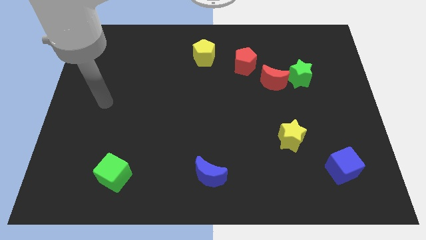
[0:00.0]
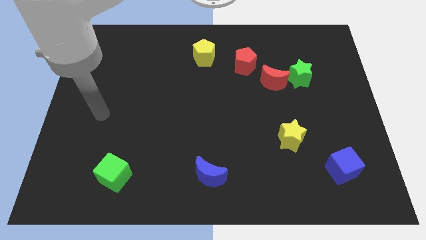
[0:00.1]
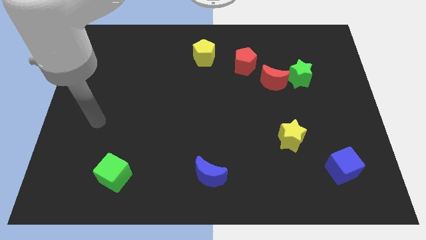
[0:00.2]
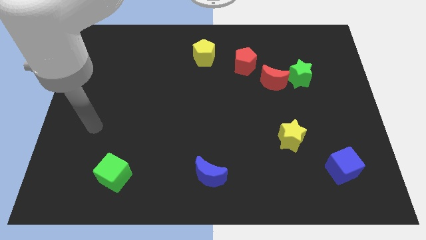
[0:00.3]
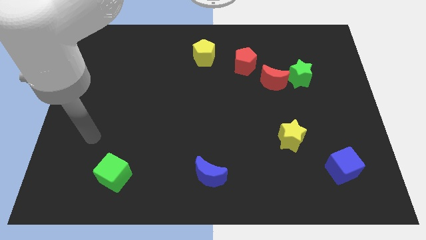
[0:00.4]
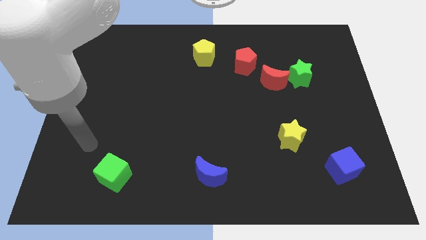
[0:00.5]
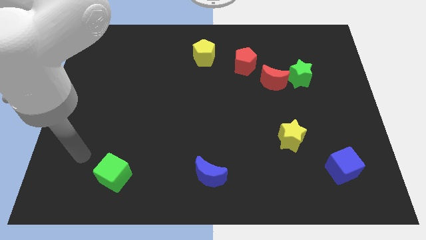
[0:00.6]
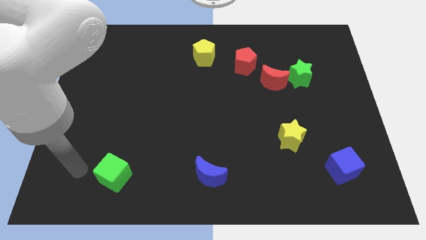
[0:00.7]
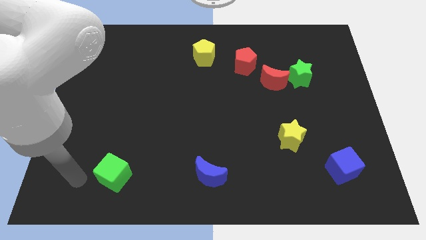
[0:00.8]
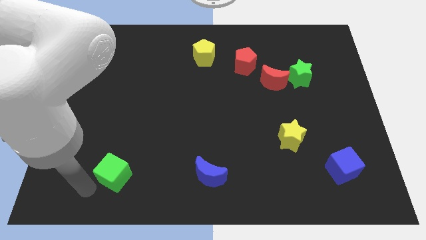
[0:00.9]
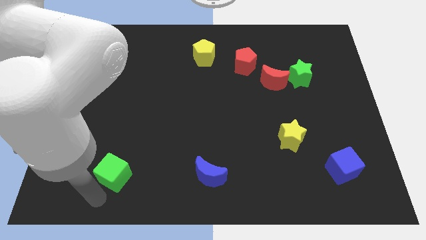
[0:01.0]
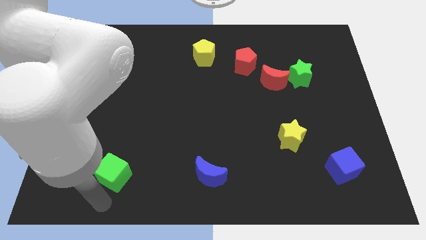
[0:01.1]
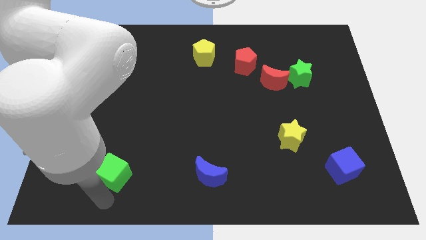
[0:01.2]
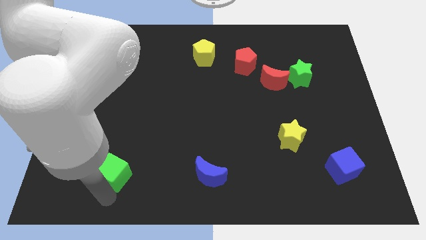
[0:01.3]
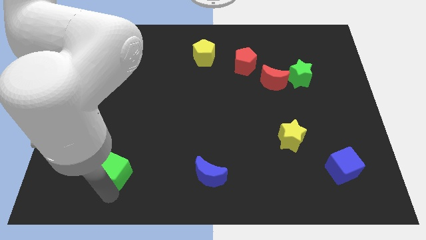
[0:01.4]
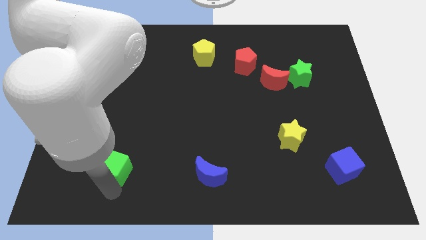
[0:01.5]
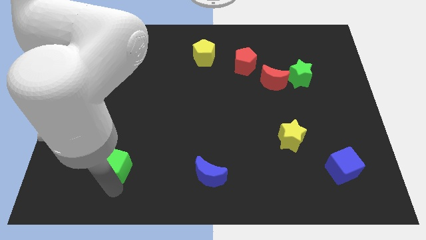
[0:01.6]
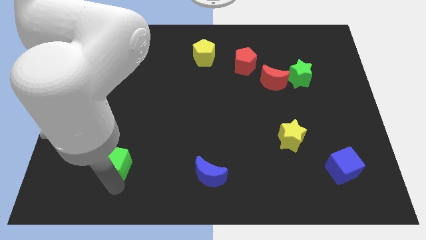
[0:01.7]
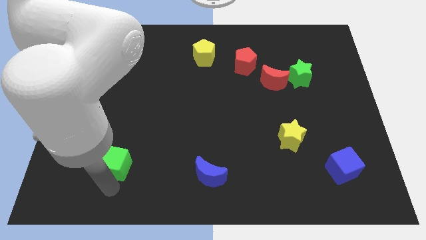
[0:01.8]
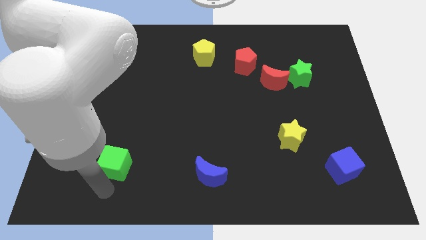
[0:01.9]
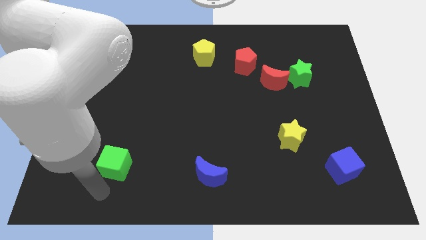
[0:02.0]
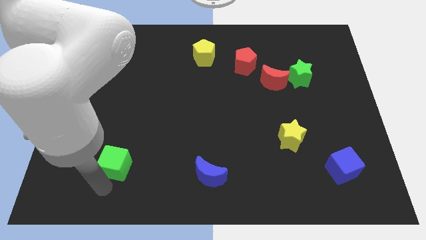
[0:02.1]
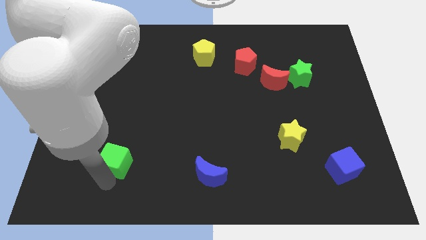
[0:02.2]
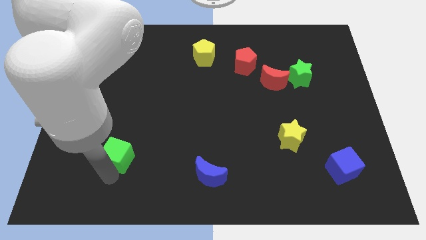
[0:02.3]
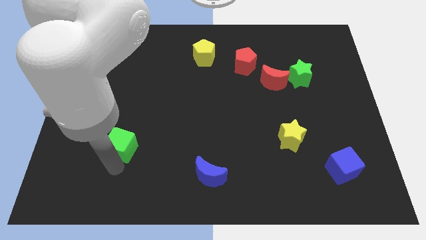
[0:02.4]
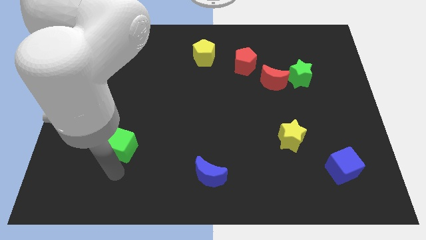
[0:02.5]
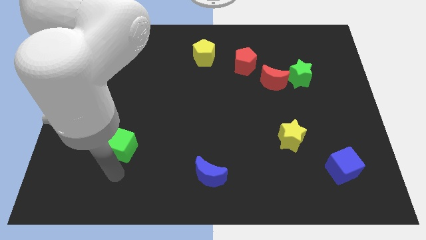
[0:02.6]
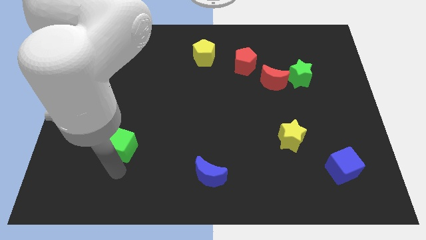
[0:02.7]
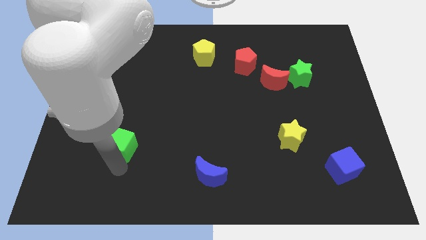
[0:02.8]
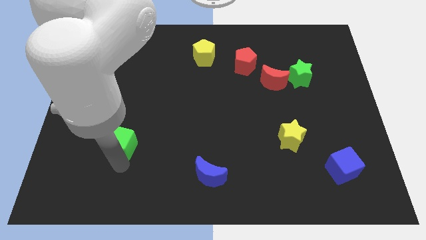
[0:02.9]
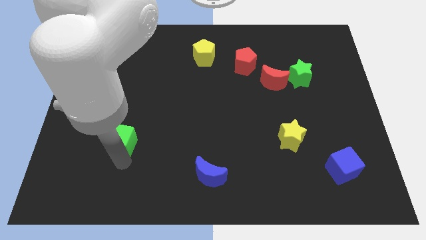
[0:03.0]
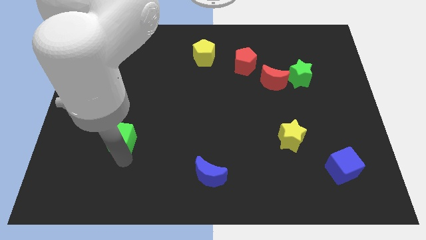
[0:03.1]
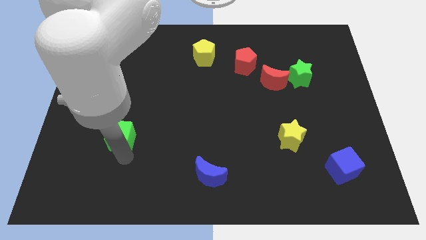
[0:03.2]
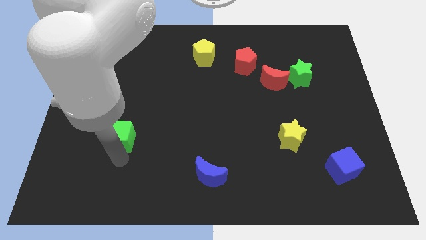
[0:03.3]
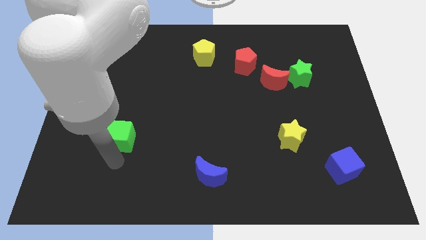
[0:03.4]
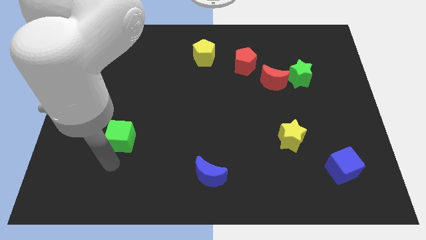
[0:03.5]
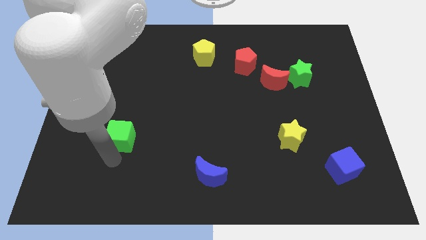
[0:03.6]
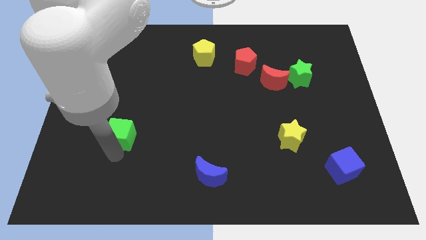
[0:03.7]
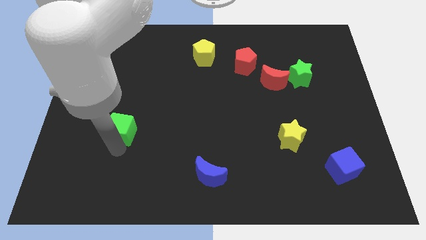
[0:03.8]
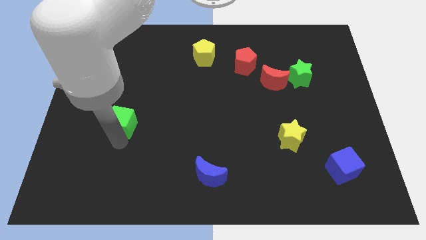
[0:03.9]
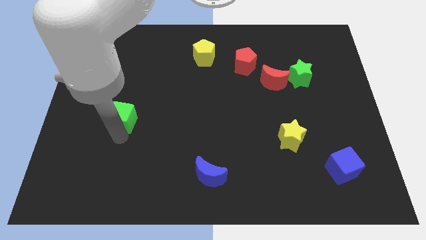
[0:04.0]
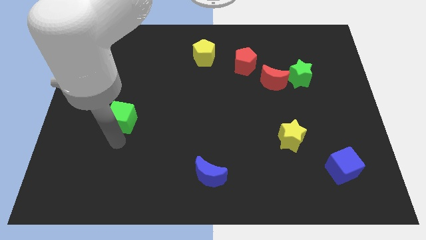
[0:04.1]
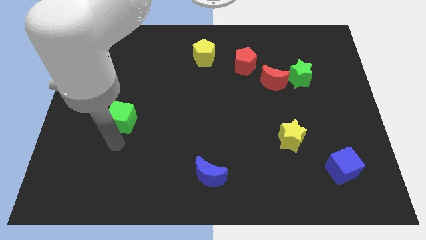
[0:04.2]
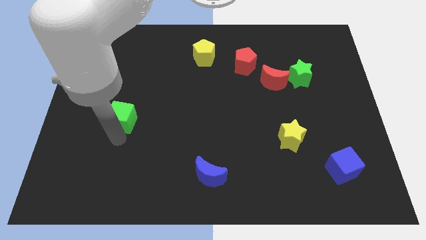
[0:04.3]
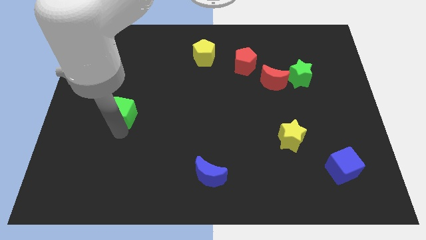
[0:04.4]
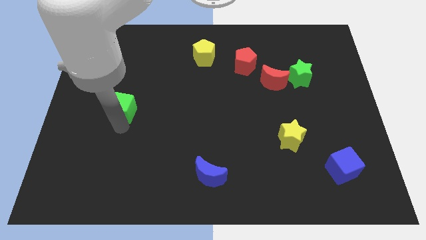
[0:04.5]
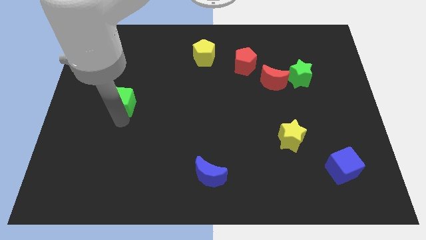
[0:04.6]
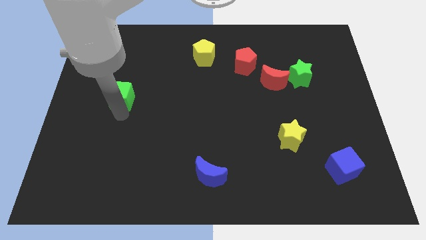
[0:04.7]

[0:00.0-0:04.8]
slide the green cube upwards

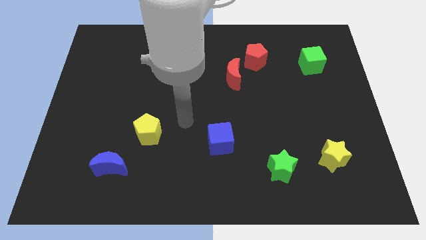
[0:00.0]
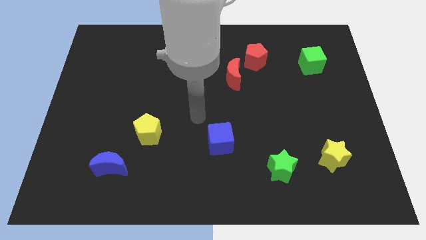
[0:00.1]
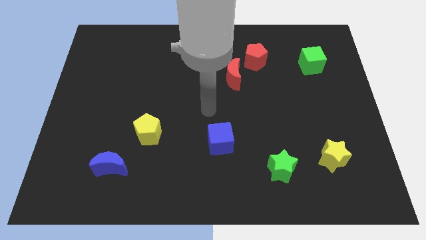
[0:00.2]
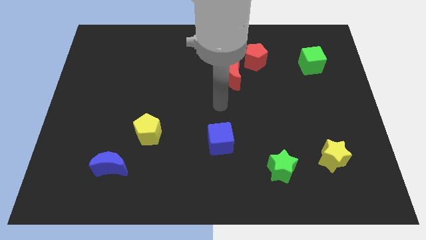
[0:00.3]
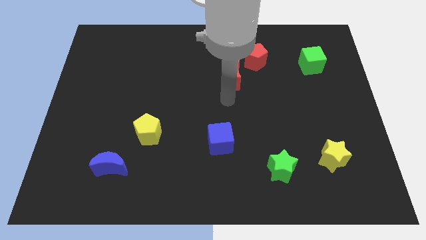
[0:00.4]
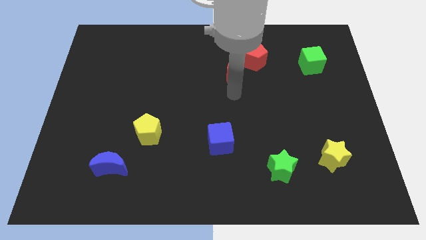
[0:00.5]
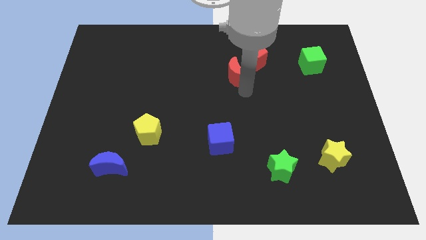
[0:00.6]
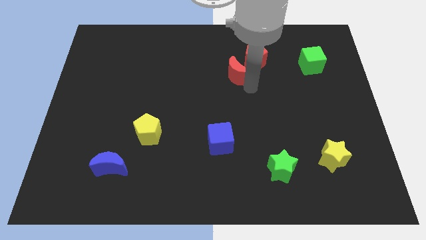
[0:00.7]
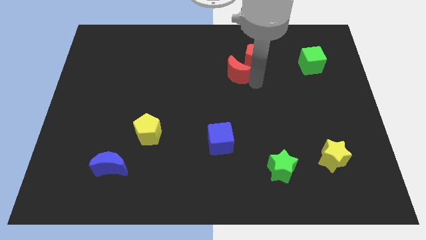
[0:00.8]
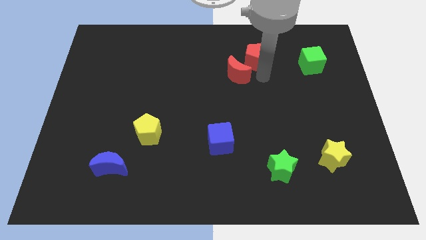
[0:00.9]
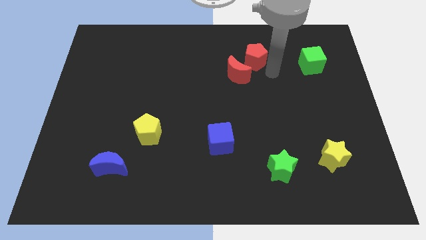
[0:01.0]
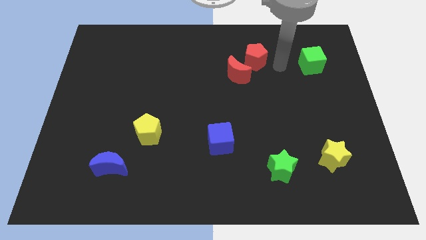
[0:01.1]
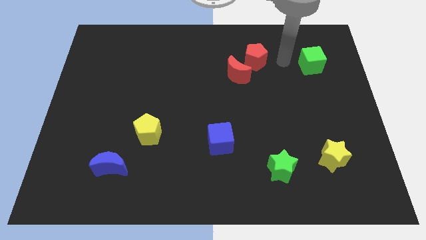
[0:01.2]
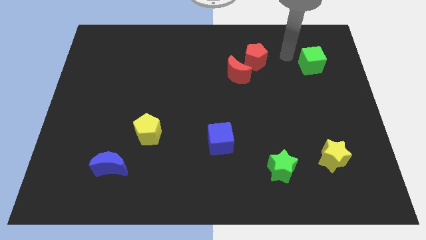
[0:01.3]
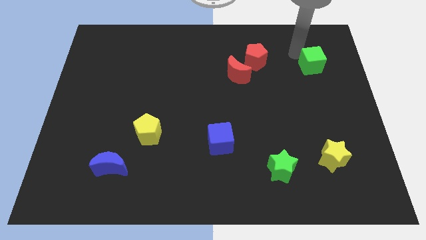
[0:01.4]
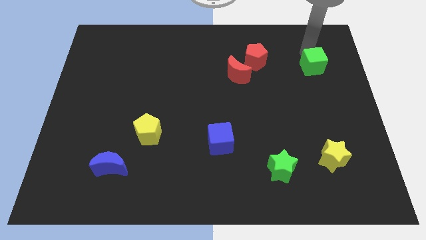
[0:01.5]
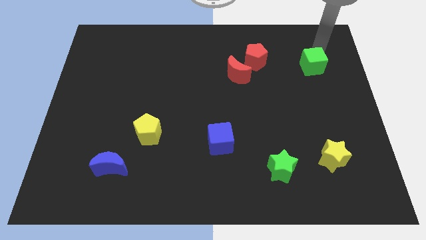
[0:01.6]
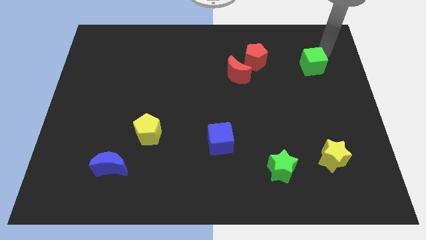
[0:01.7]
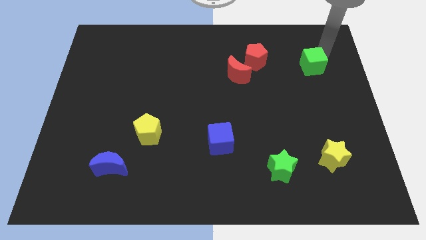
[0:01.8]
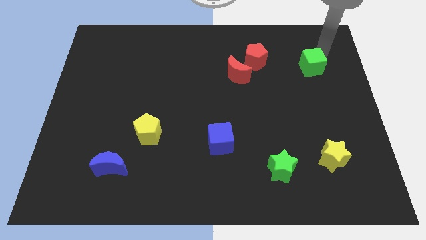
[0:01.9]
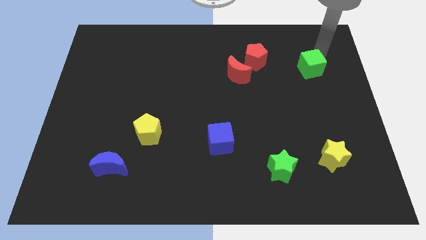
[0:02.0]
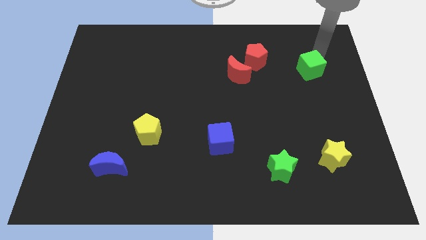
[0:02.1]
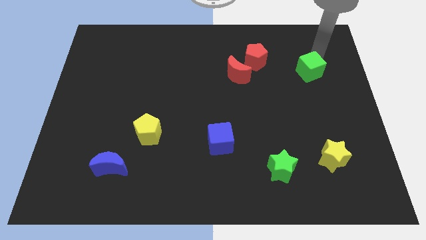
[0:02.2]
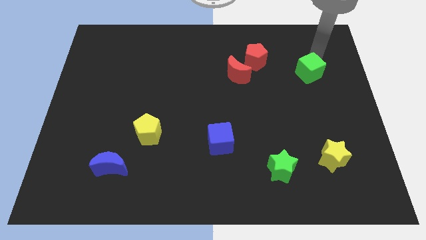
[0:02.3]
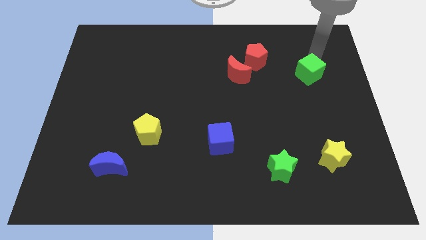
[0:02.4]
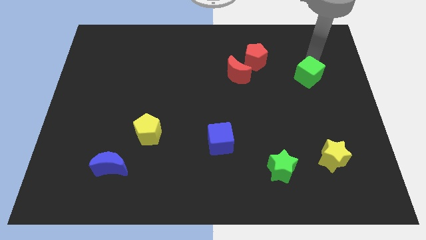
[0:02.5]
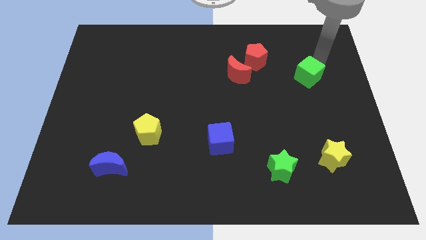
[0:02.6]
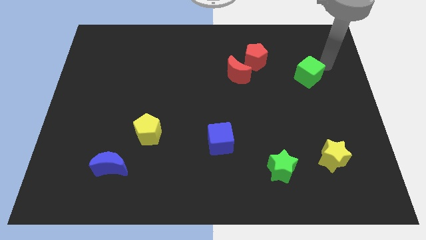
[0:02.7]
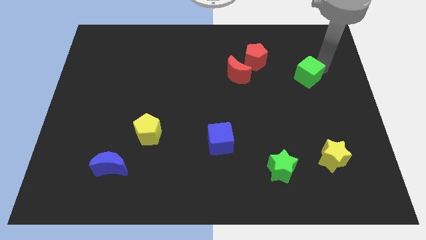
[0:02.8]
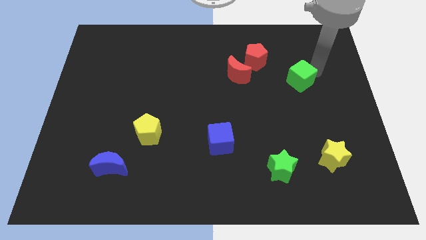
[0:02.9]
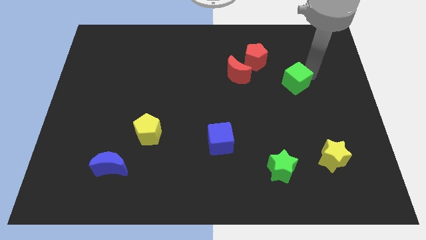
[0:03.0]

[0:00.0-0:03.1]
move the green cube downwards and left diagonally a little
